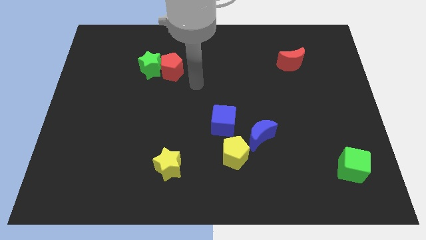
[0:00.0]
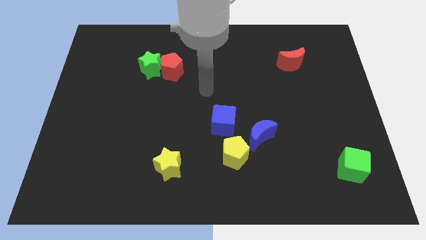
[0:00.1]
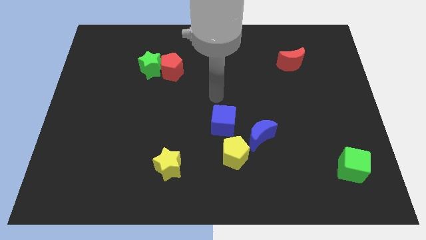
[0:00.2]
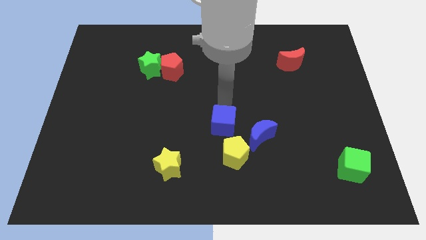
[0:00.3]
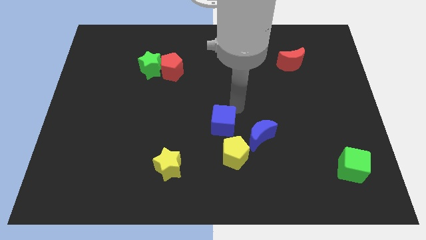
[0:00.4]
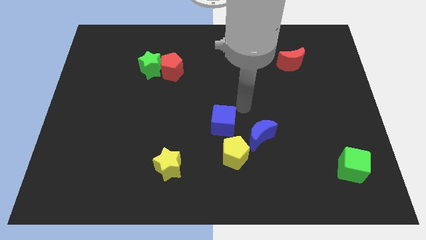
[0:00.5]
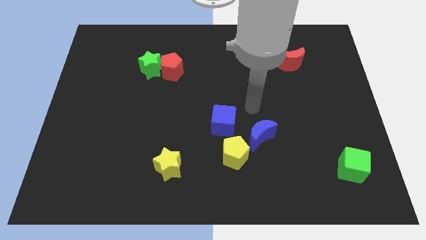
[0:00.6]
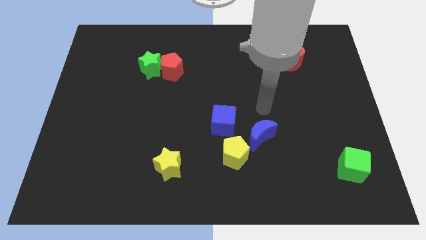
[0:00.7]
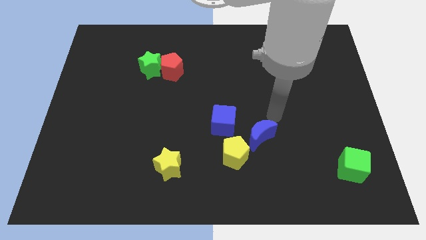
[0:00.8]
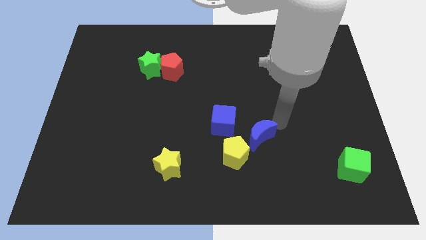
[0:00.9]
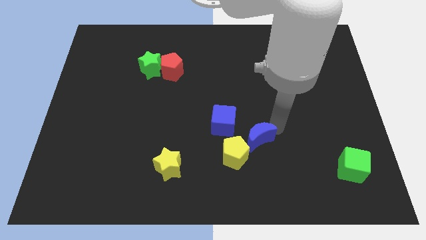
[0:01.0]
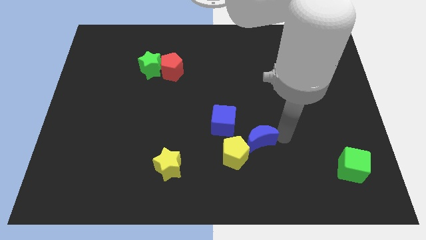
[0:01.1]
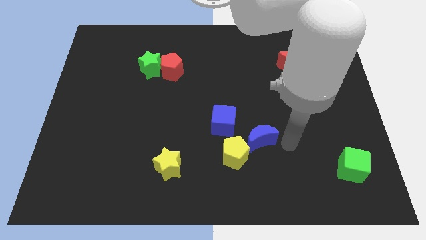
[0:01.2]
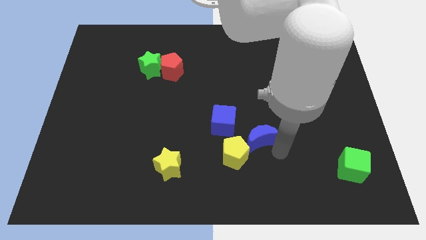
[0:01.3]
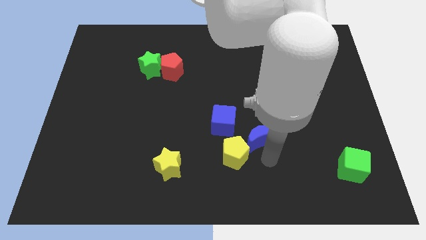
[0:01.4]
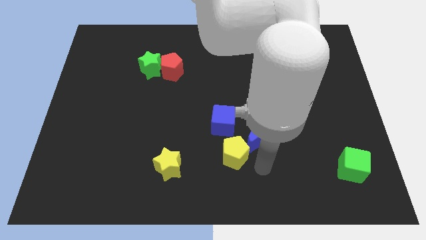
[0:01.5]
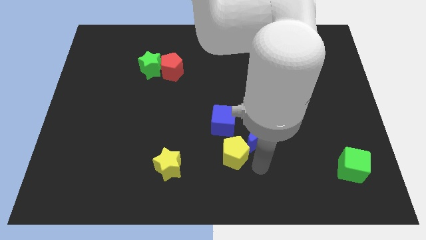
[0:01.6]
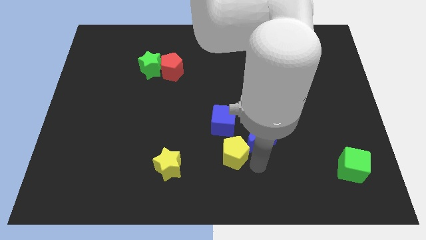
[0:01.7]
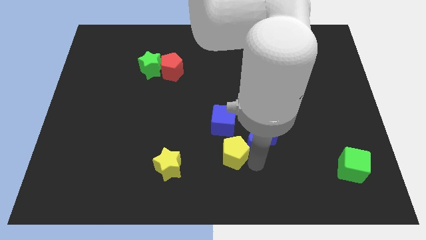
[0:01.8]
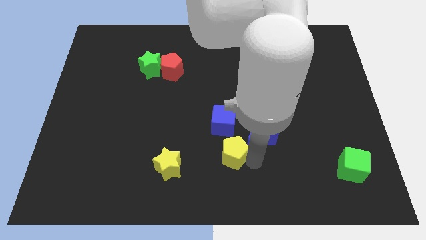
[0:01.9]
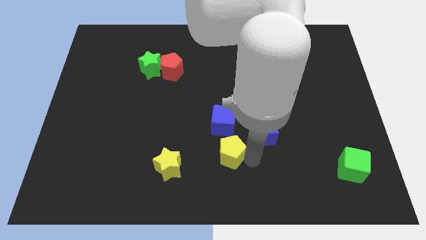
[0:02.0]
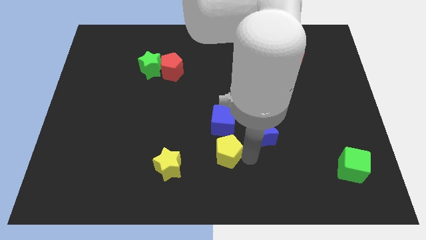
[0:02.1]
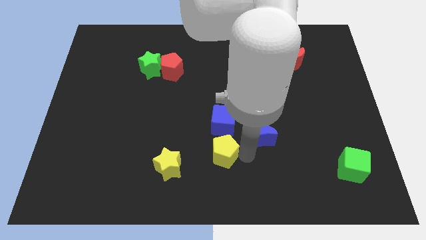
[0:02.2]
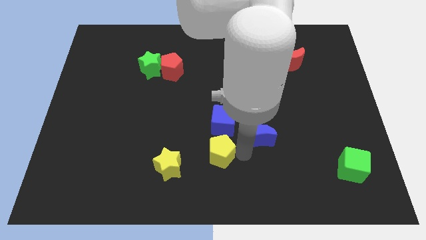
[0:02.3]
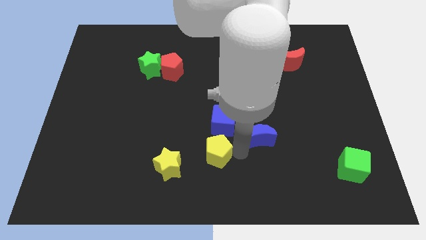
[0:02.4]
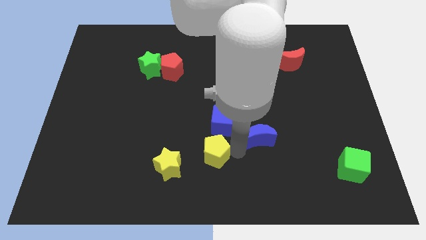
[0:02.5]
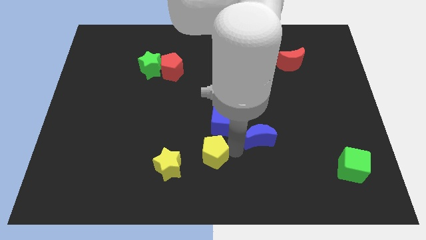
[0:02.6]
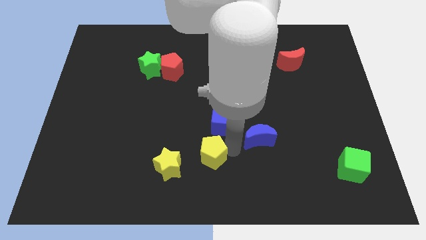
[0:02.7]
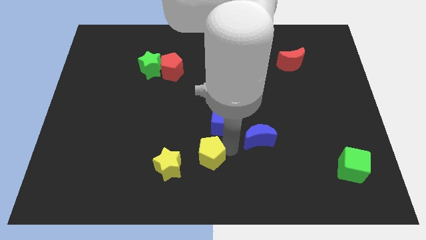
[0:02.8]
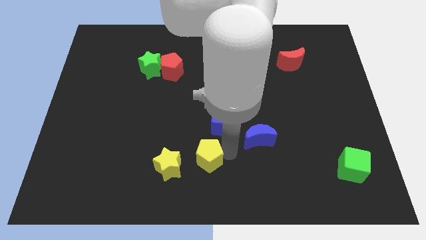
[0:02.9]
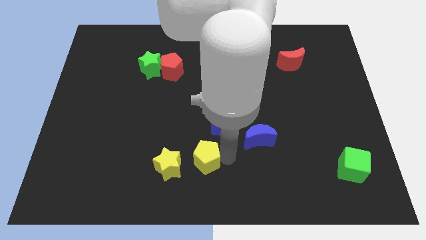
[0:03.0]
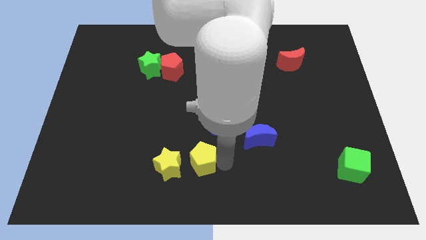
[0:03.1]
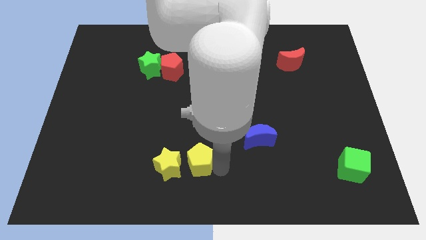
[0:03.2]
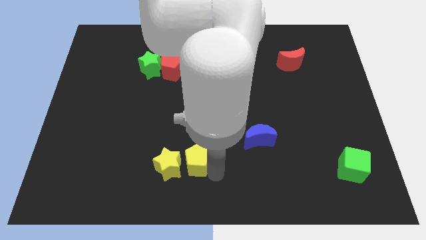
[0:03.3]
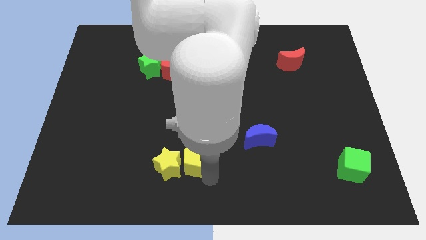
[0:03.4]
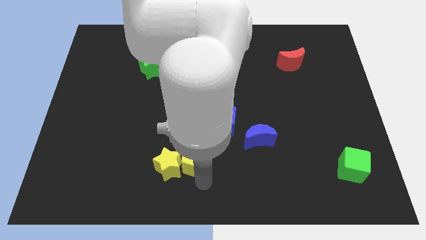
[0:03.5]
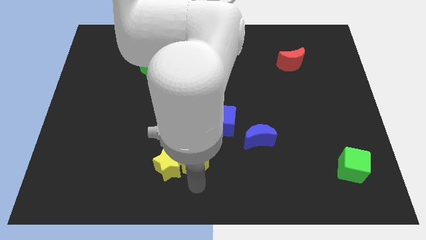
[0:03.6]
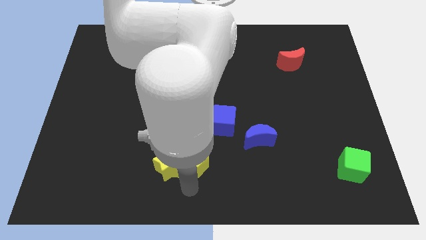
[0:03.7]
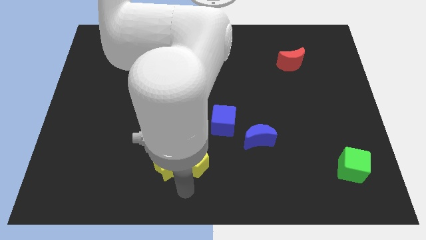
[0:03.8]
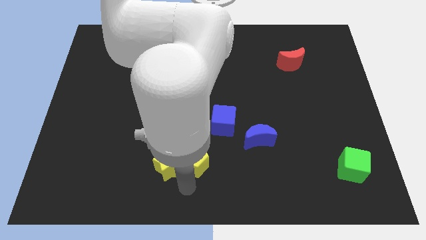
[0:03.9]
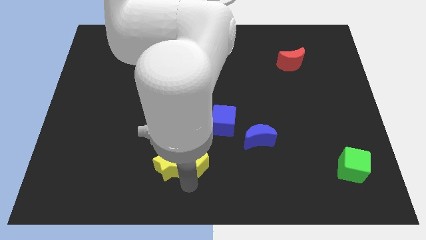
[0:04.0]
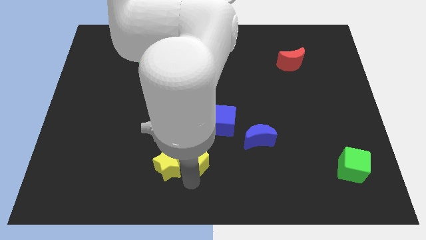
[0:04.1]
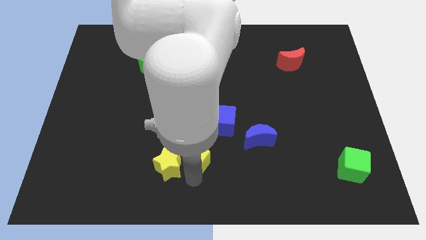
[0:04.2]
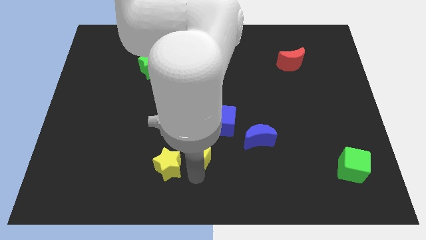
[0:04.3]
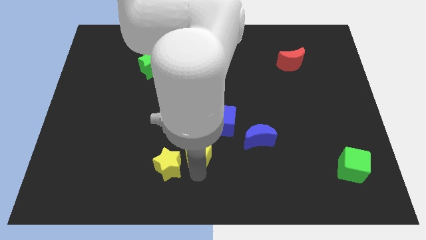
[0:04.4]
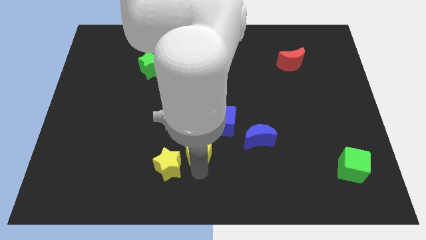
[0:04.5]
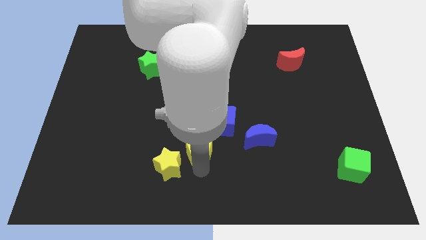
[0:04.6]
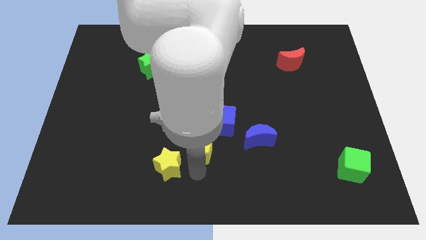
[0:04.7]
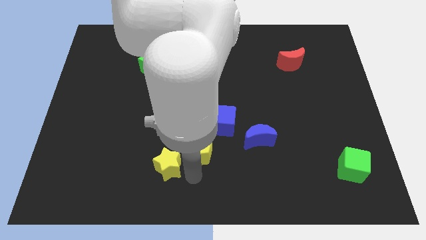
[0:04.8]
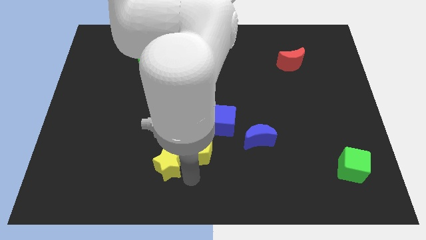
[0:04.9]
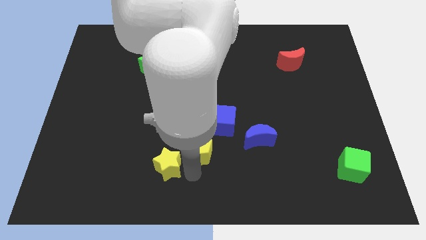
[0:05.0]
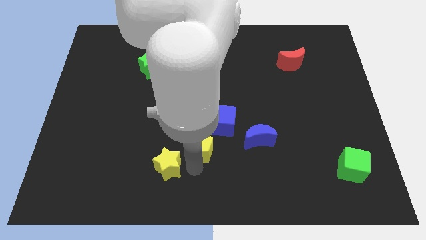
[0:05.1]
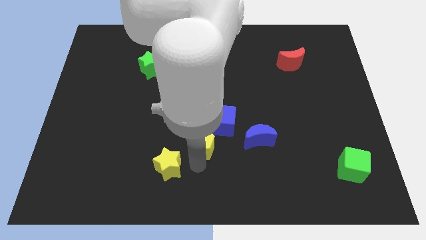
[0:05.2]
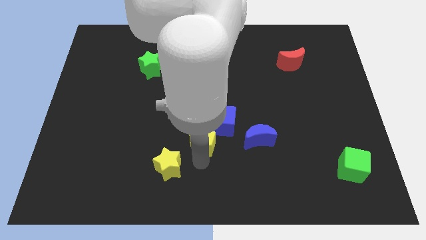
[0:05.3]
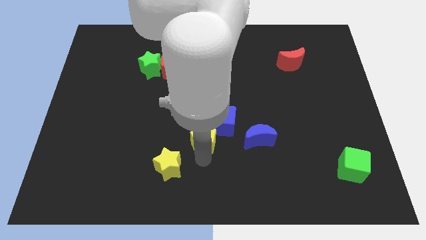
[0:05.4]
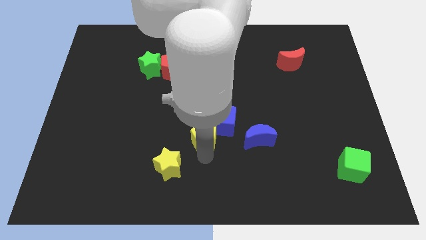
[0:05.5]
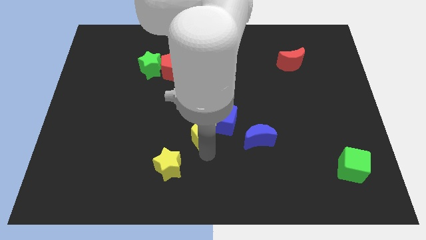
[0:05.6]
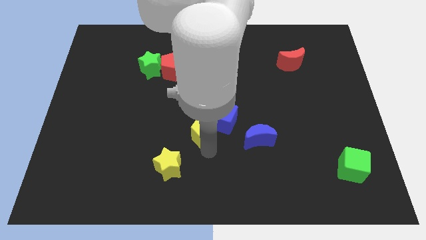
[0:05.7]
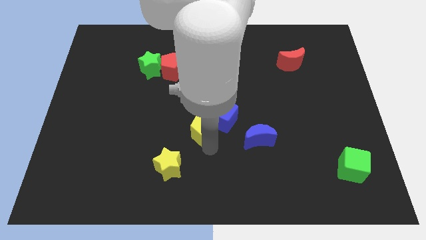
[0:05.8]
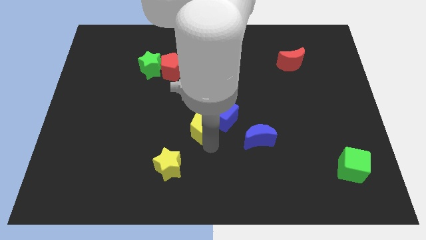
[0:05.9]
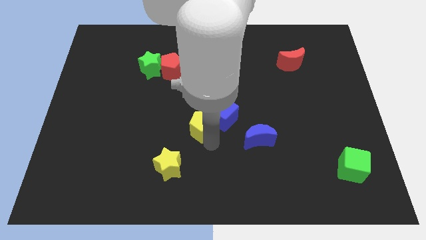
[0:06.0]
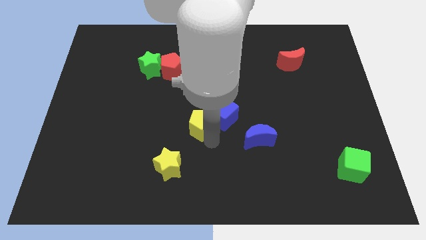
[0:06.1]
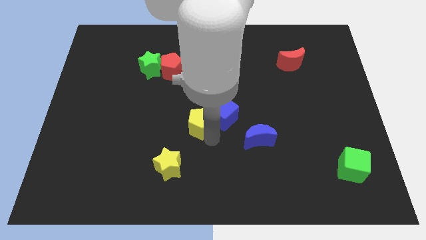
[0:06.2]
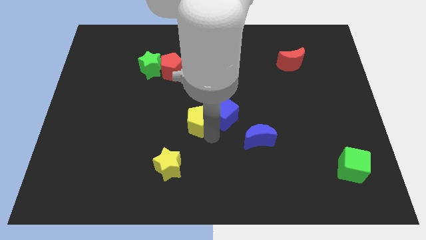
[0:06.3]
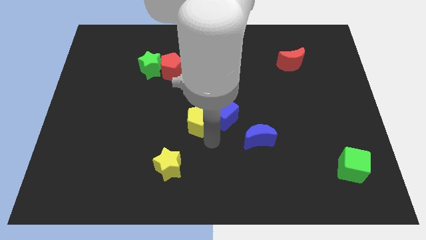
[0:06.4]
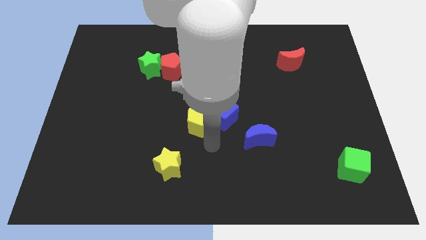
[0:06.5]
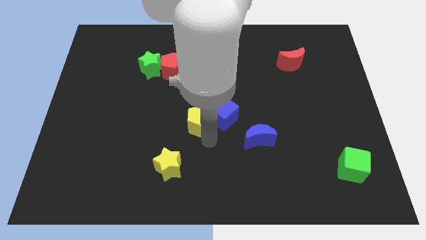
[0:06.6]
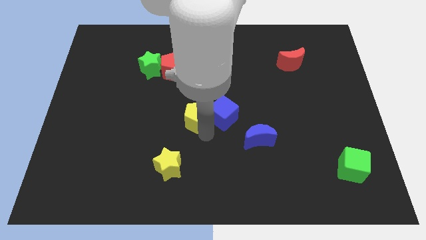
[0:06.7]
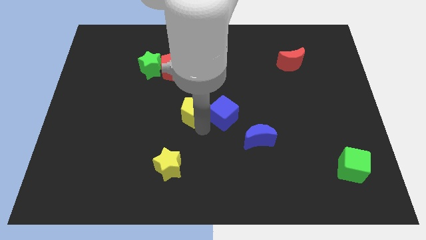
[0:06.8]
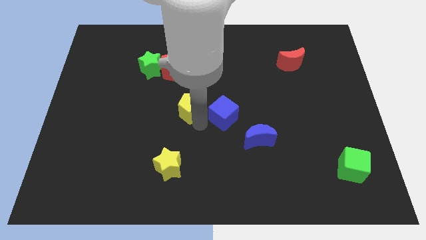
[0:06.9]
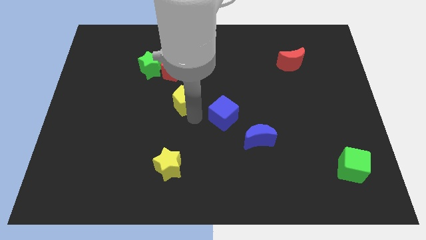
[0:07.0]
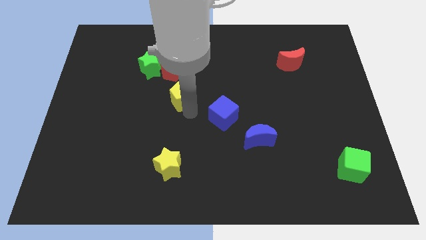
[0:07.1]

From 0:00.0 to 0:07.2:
move the yellow pentagon to the bottom right side of the red pentagon

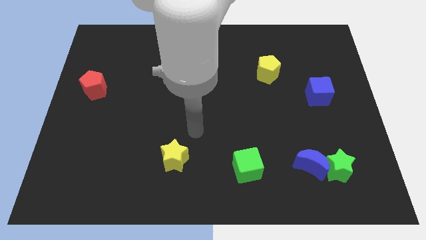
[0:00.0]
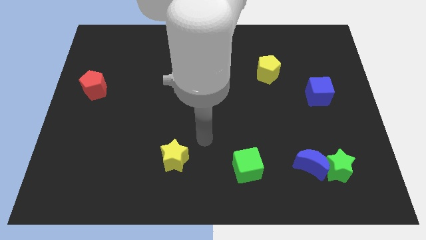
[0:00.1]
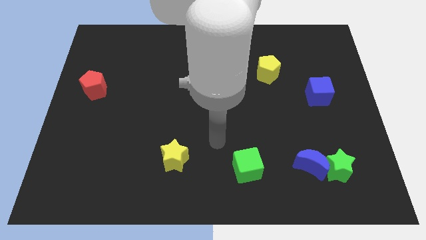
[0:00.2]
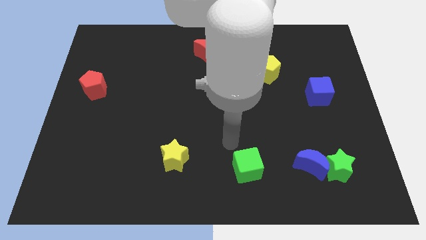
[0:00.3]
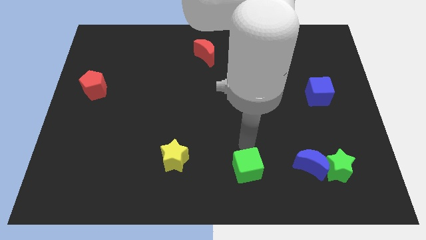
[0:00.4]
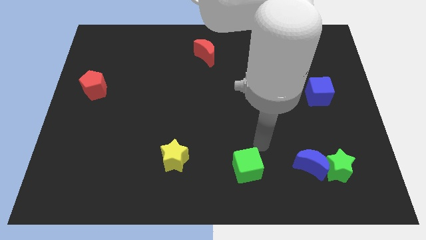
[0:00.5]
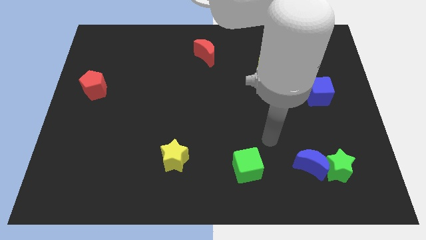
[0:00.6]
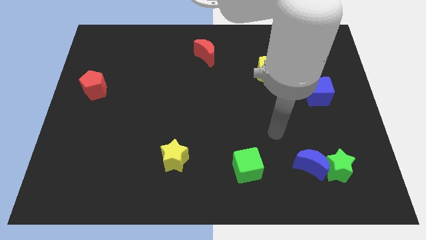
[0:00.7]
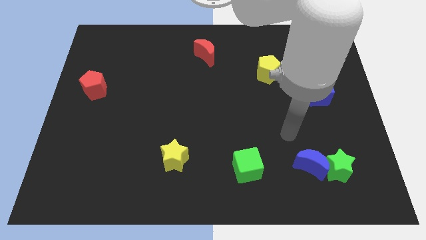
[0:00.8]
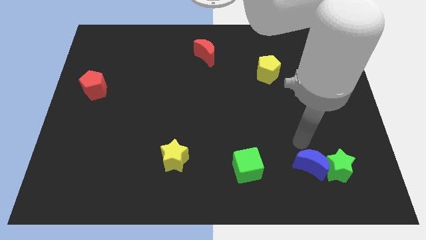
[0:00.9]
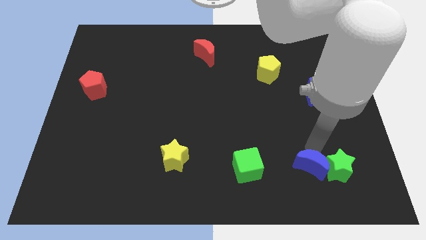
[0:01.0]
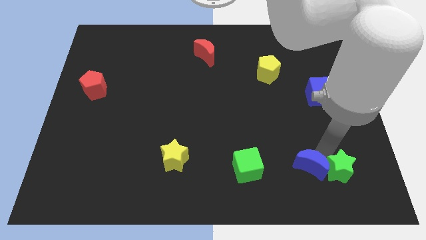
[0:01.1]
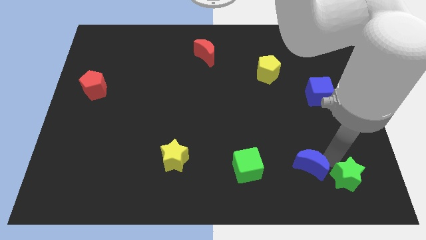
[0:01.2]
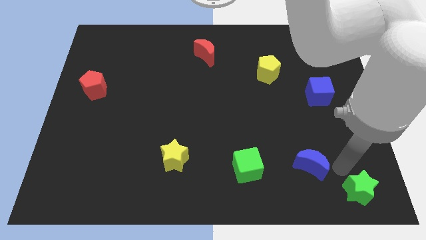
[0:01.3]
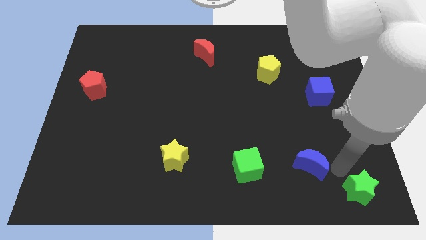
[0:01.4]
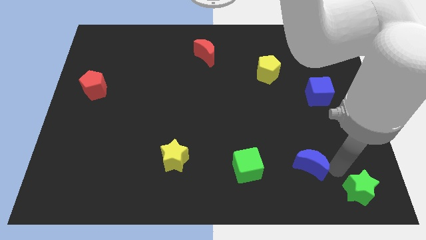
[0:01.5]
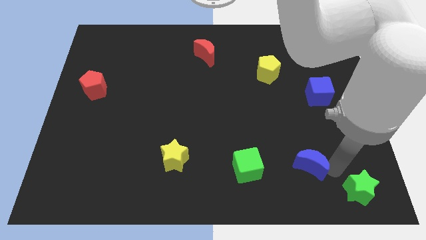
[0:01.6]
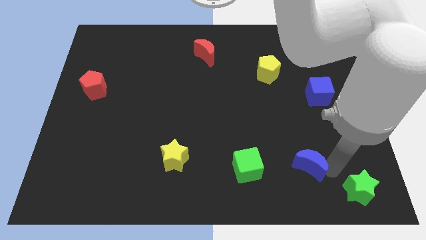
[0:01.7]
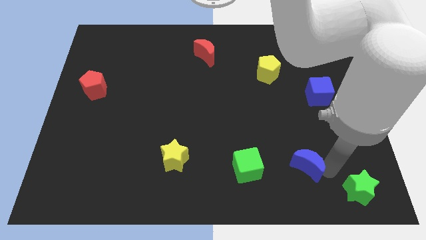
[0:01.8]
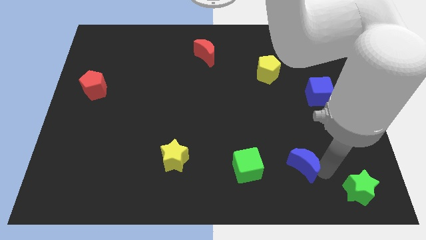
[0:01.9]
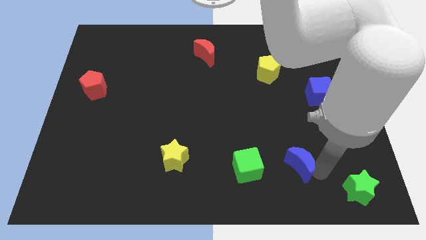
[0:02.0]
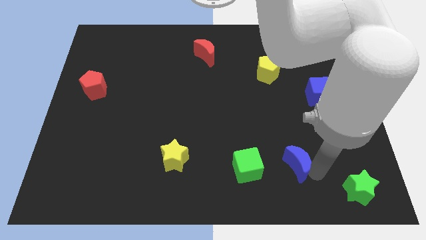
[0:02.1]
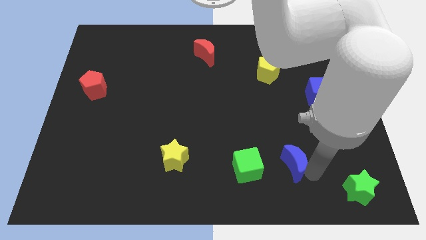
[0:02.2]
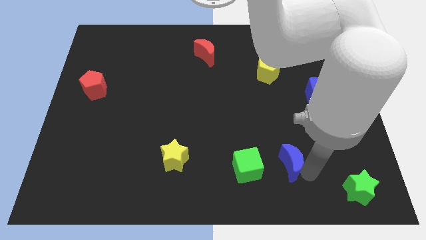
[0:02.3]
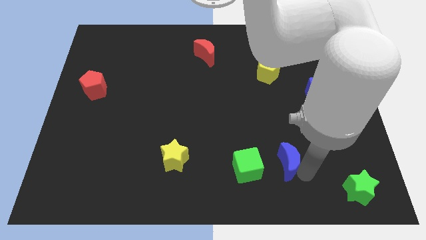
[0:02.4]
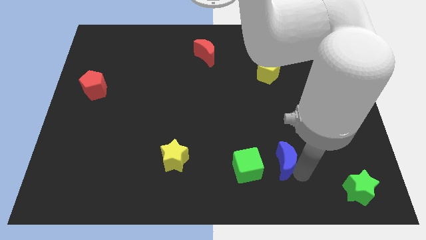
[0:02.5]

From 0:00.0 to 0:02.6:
slide the blue moon to the top right side of the green cube
